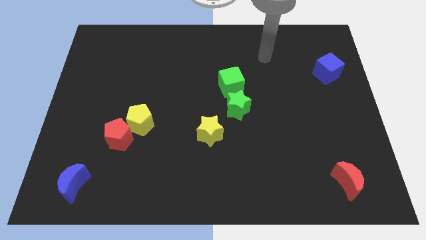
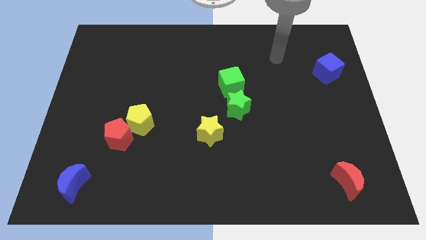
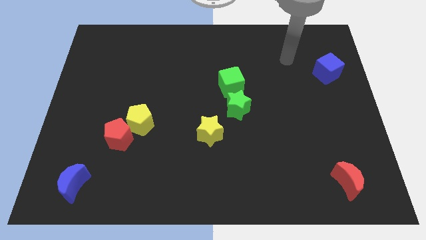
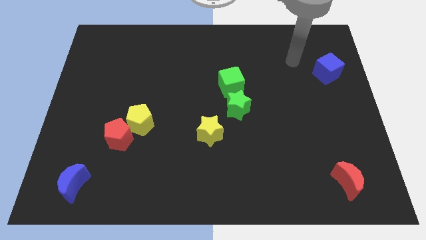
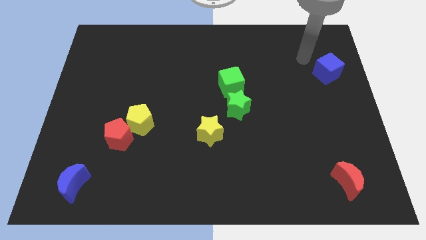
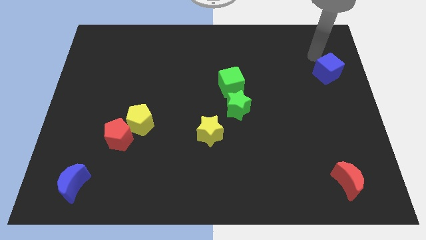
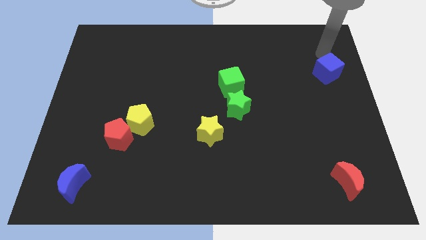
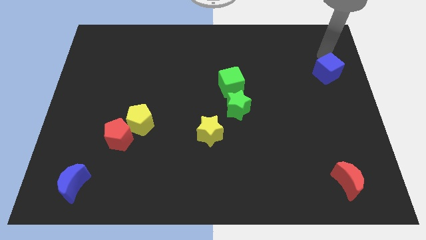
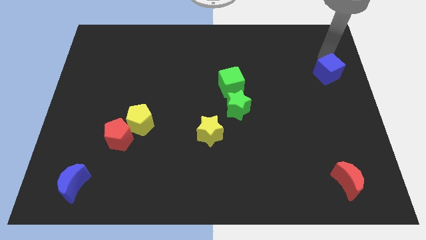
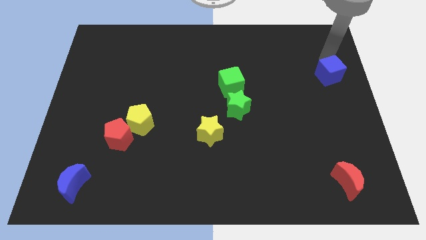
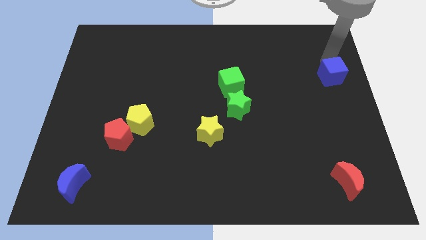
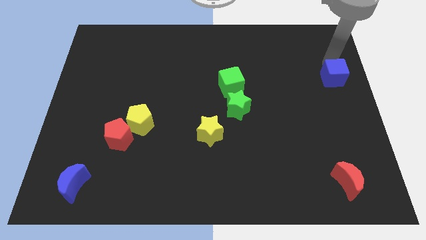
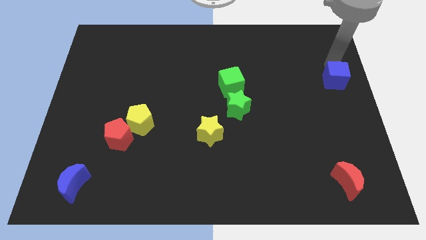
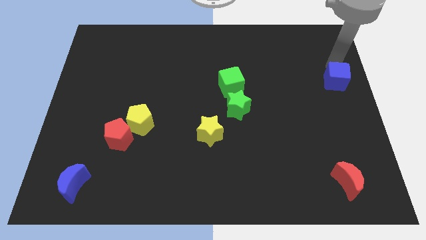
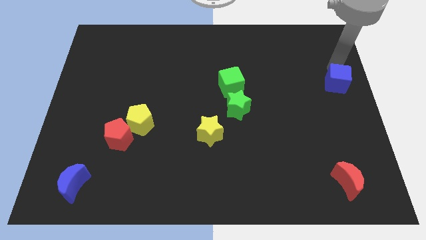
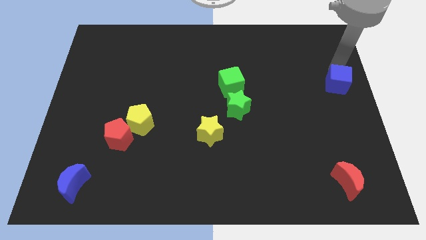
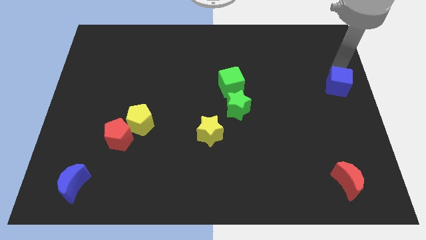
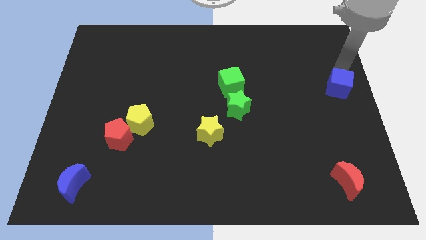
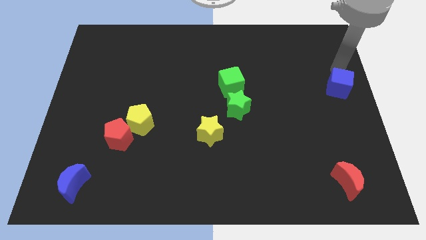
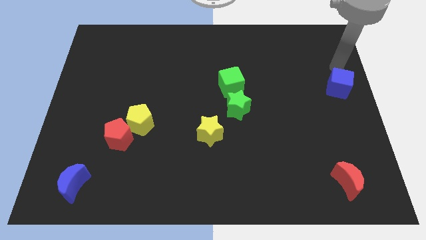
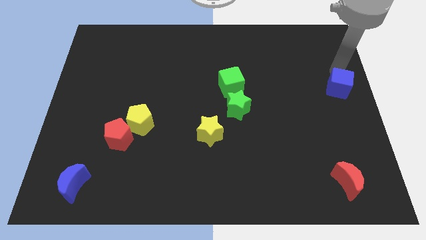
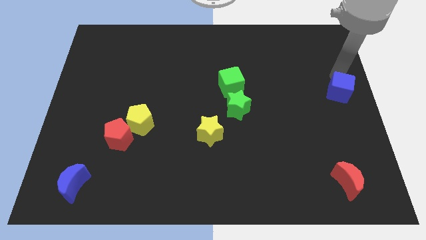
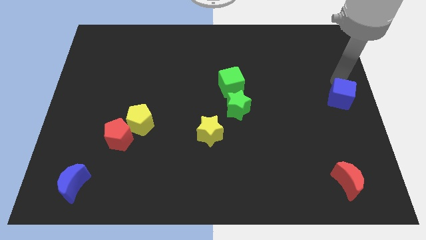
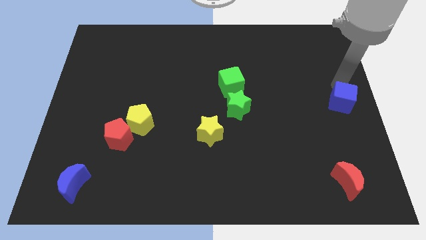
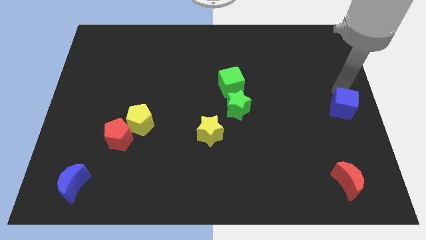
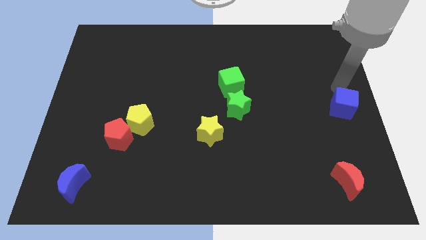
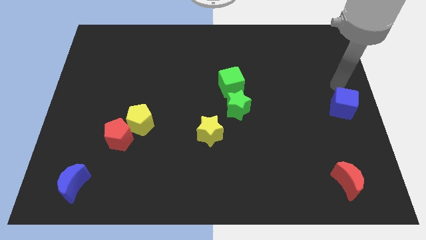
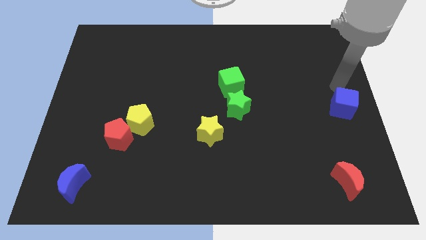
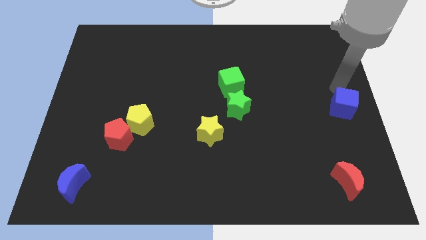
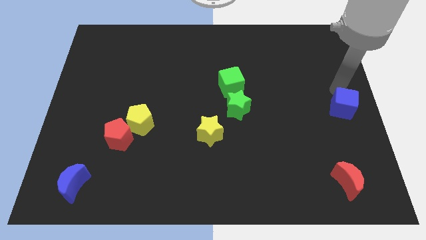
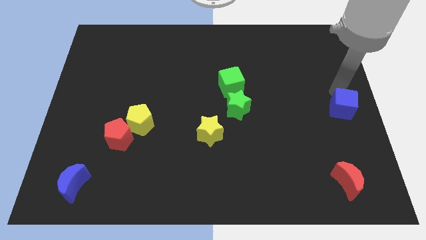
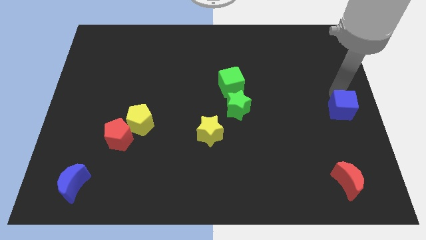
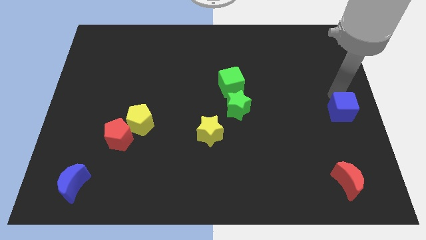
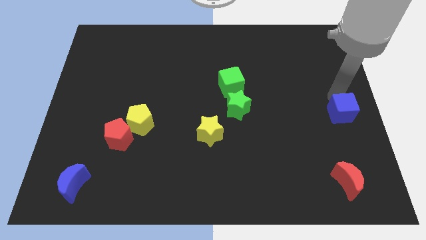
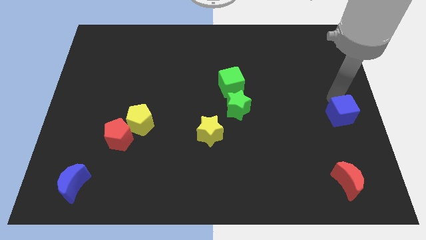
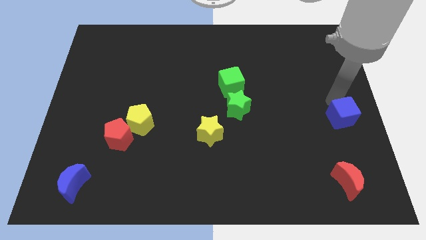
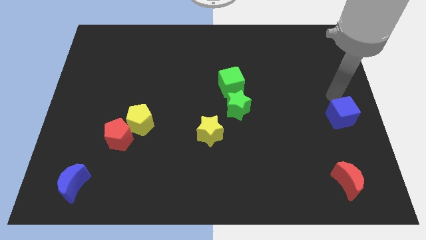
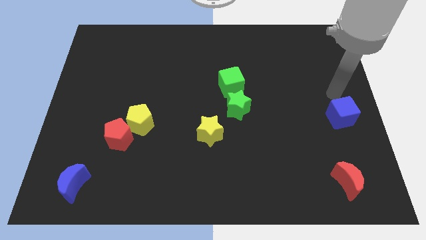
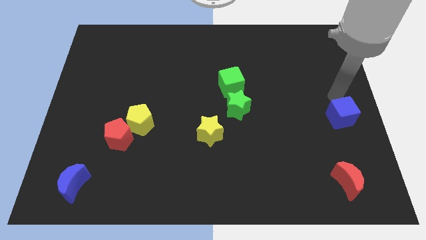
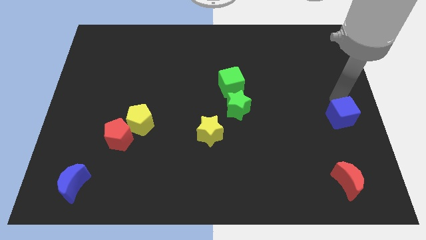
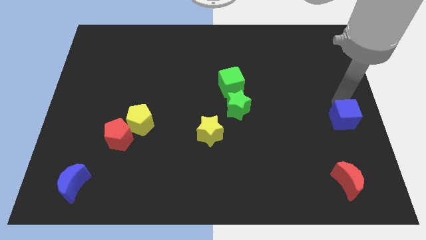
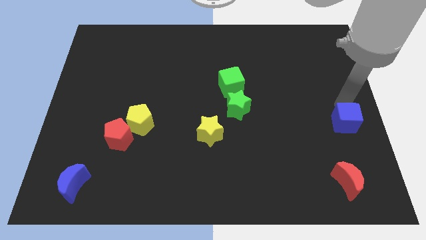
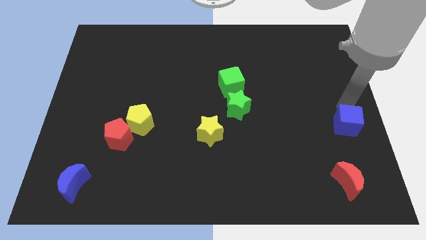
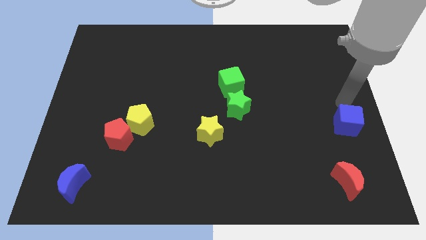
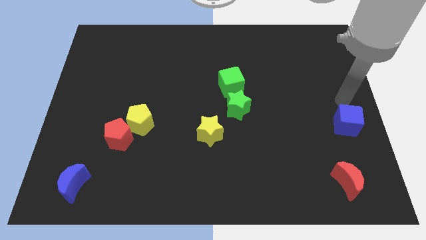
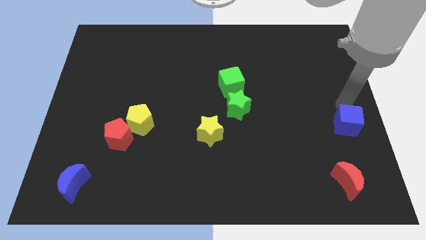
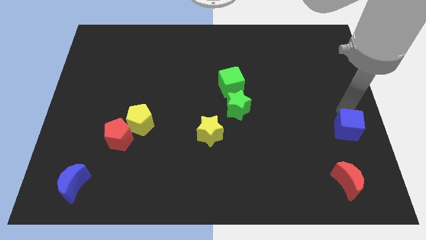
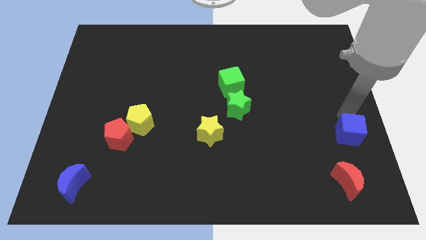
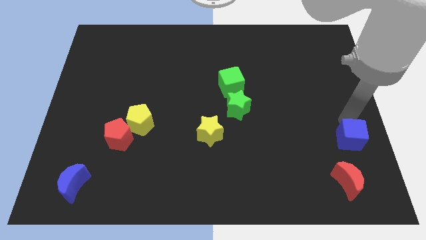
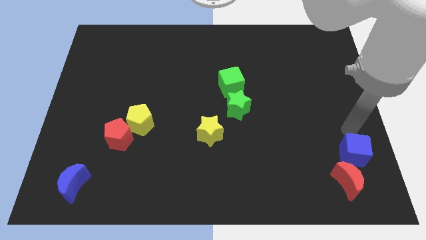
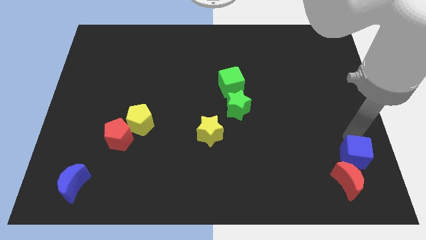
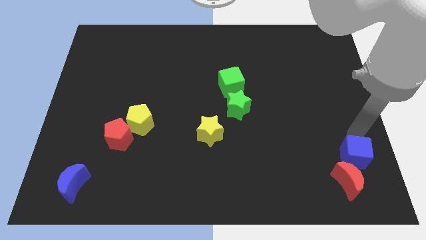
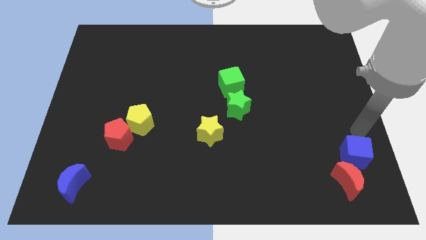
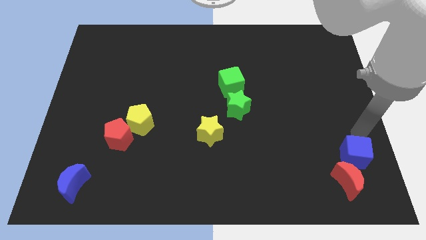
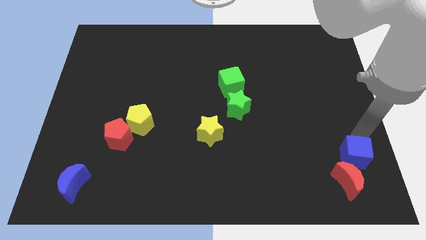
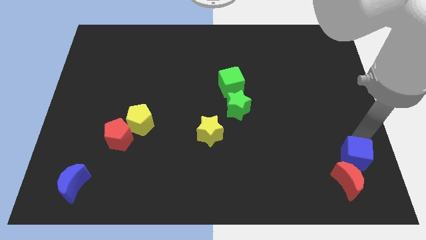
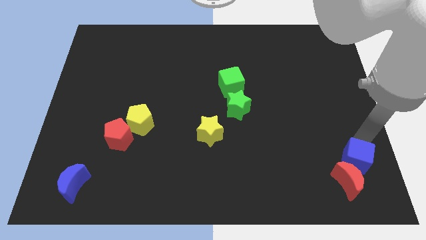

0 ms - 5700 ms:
slide the blue cube to the red moon
